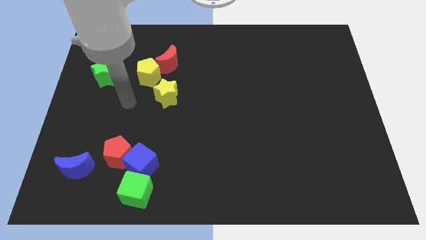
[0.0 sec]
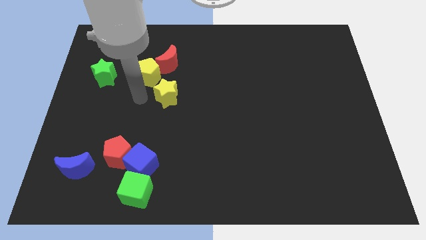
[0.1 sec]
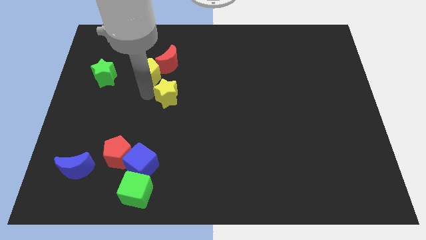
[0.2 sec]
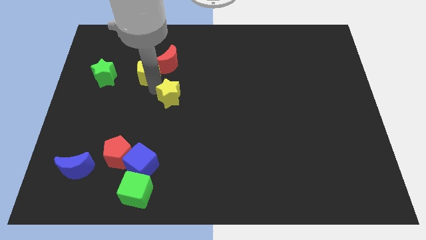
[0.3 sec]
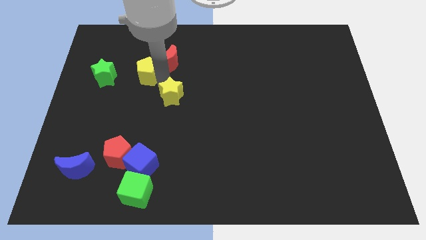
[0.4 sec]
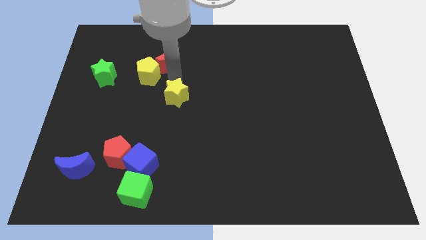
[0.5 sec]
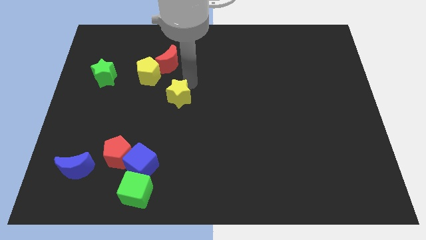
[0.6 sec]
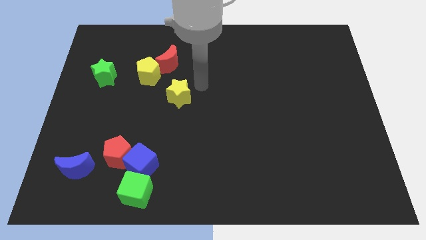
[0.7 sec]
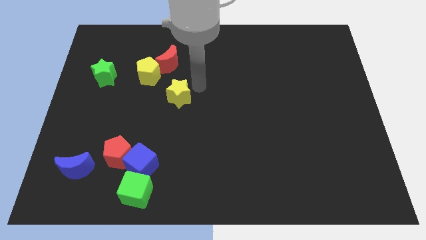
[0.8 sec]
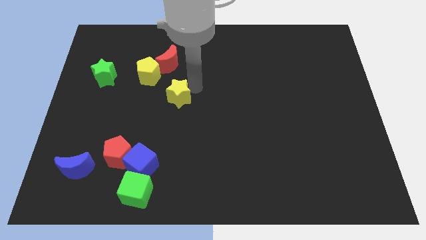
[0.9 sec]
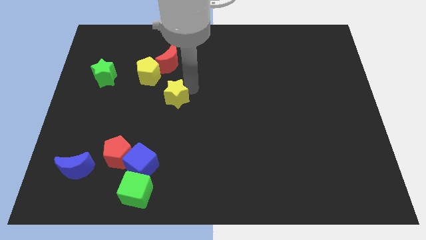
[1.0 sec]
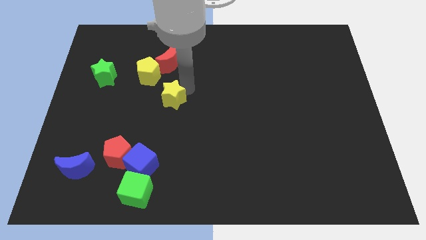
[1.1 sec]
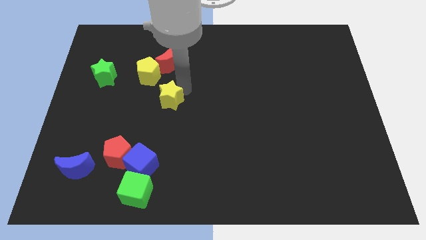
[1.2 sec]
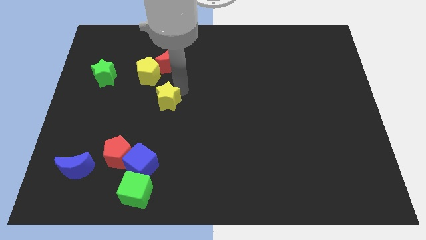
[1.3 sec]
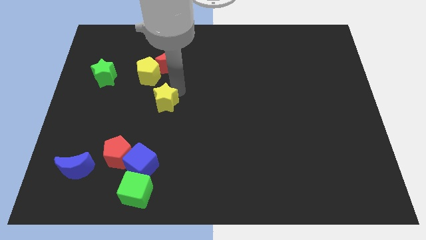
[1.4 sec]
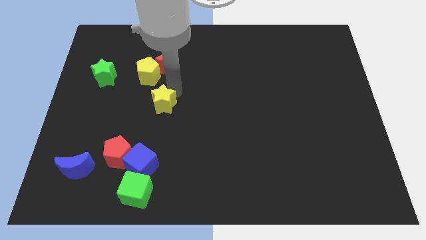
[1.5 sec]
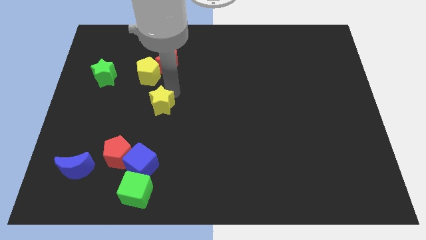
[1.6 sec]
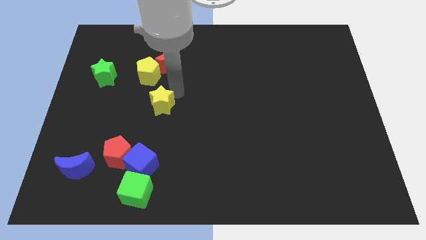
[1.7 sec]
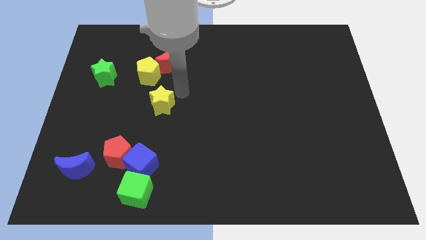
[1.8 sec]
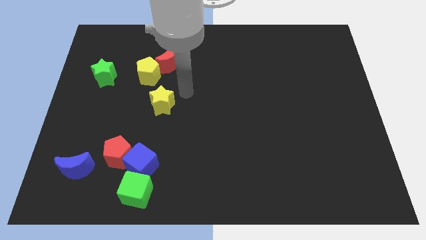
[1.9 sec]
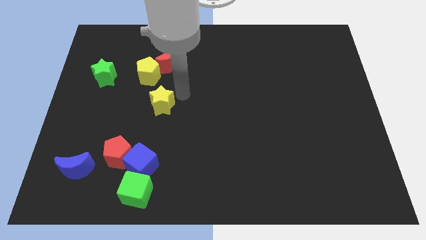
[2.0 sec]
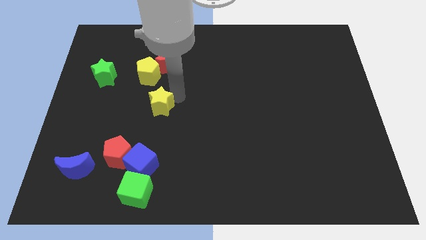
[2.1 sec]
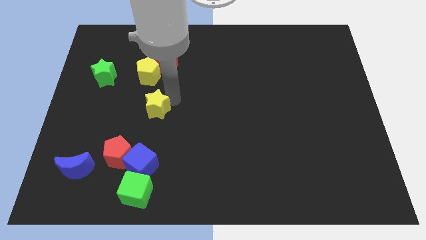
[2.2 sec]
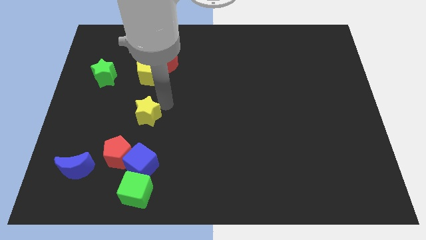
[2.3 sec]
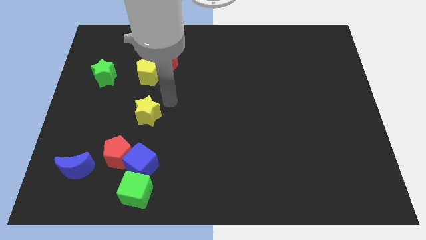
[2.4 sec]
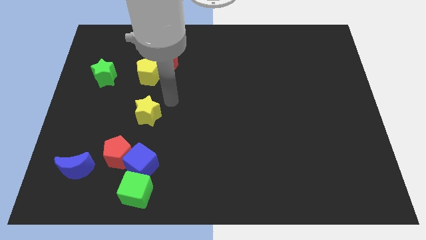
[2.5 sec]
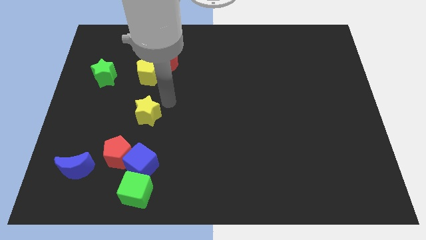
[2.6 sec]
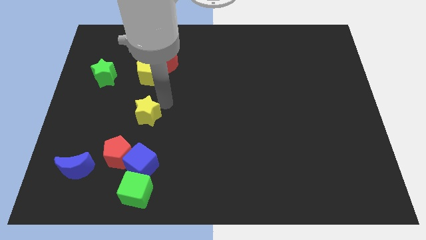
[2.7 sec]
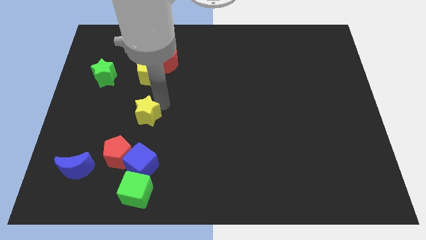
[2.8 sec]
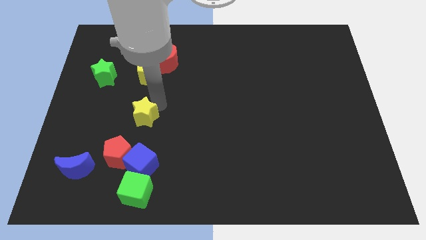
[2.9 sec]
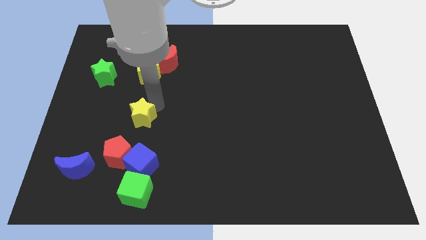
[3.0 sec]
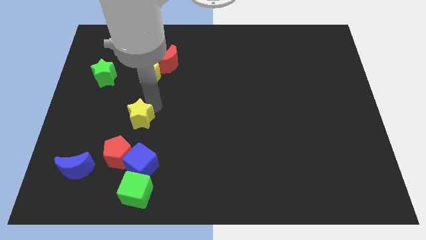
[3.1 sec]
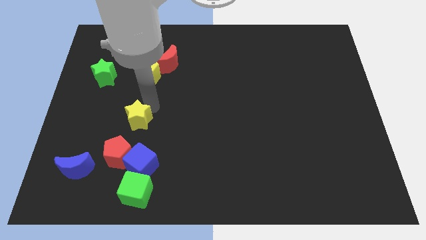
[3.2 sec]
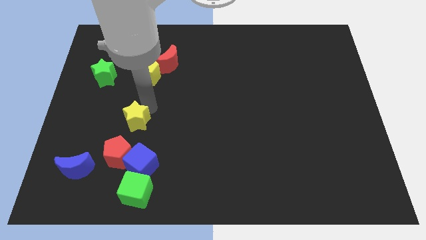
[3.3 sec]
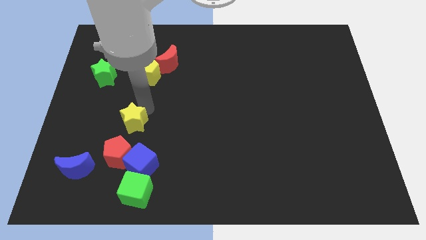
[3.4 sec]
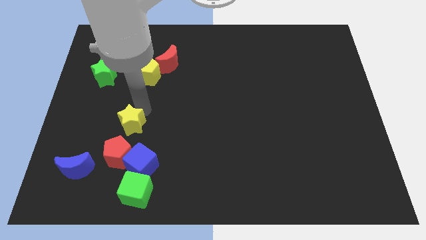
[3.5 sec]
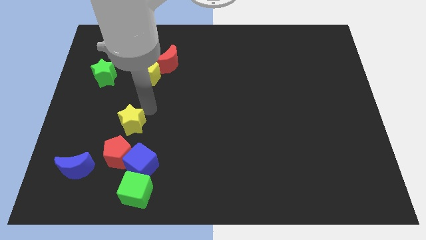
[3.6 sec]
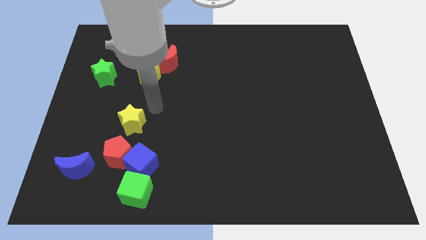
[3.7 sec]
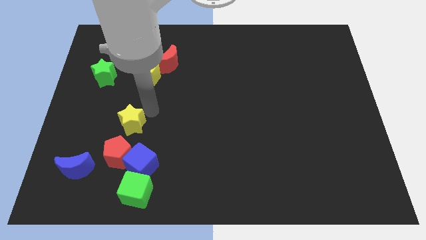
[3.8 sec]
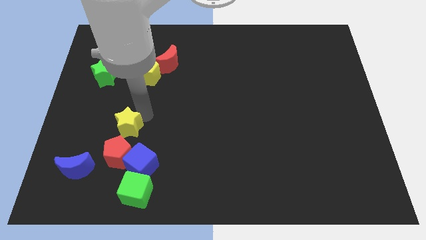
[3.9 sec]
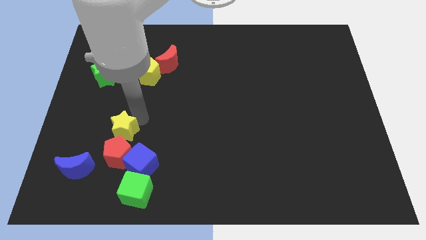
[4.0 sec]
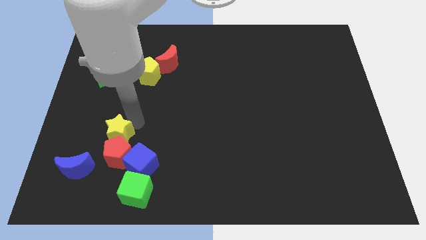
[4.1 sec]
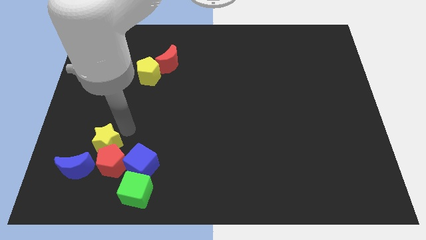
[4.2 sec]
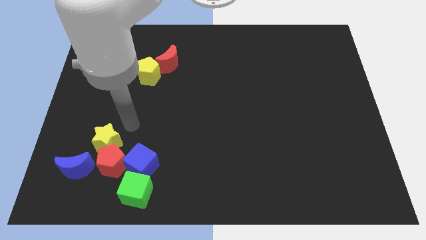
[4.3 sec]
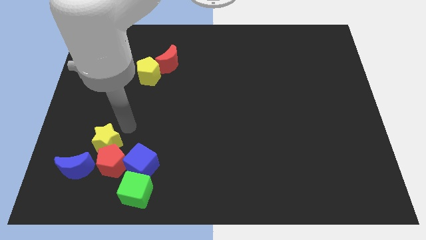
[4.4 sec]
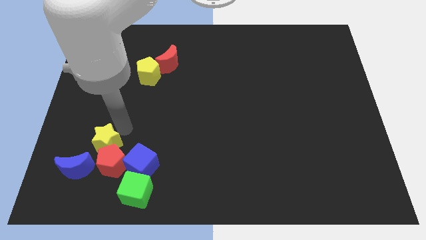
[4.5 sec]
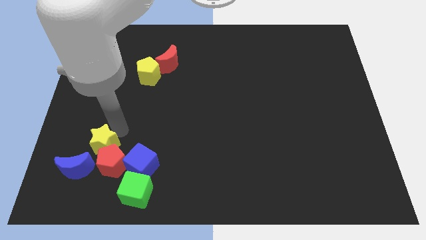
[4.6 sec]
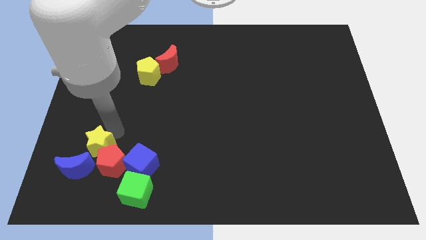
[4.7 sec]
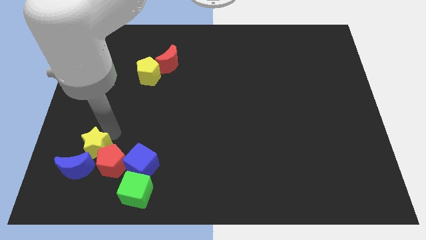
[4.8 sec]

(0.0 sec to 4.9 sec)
move the yellow star to the blue moon

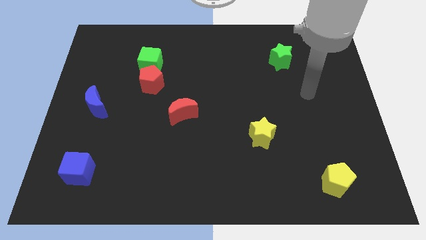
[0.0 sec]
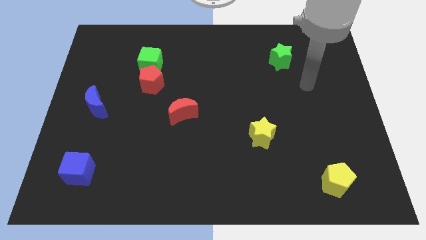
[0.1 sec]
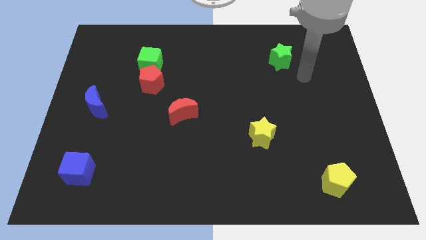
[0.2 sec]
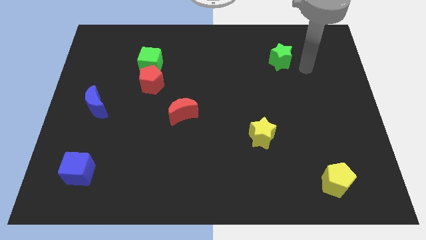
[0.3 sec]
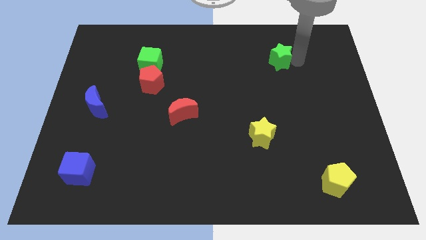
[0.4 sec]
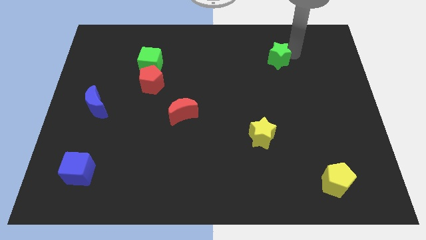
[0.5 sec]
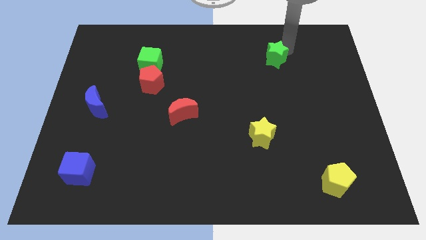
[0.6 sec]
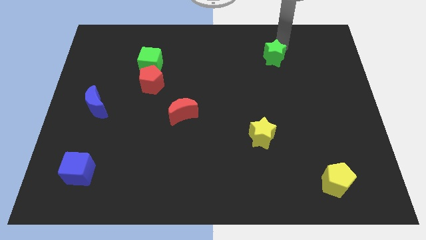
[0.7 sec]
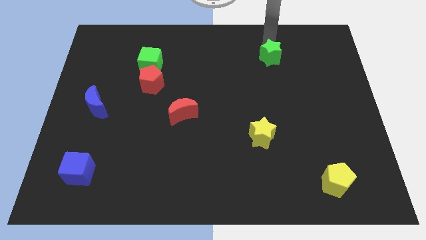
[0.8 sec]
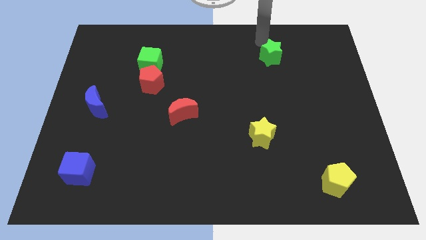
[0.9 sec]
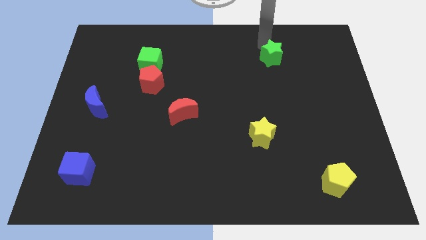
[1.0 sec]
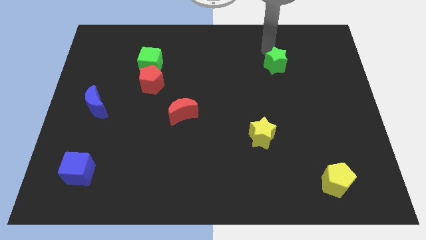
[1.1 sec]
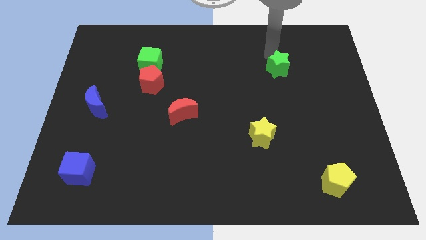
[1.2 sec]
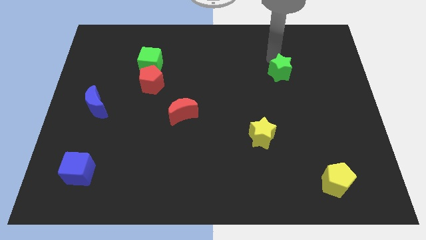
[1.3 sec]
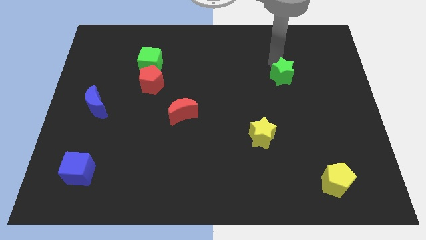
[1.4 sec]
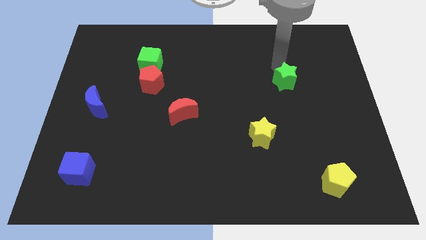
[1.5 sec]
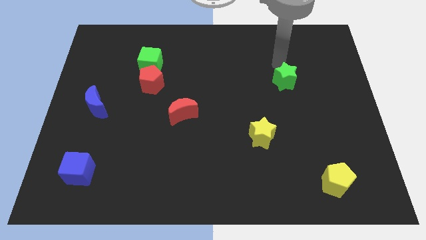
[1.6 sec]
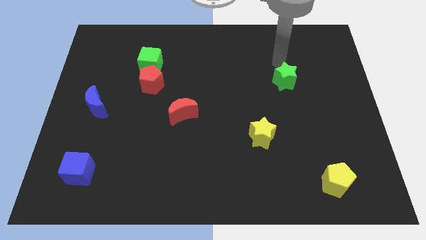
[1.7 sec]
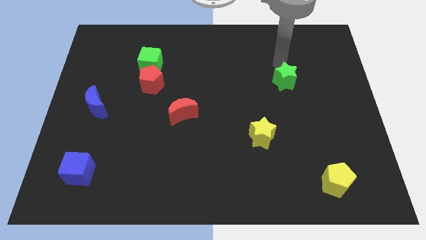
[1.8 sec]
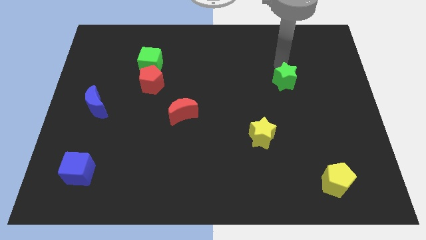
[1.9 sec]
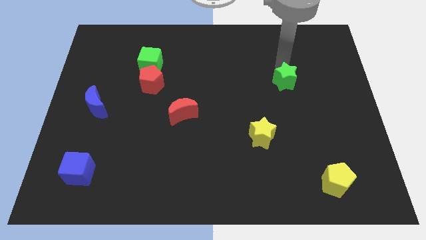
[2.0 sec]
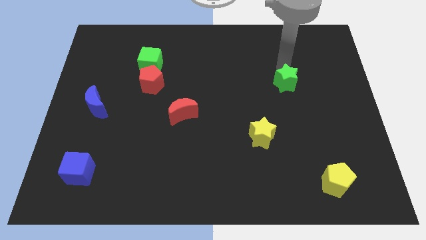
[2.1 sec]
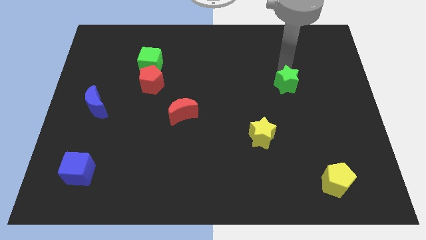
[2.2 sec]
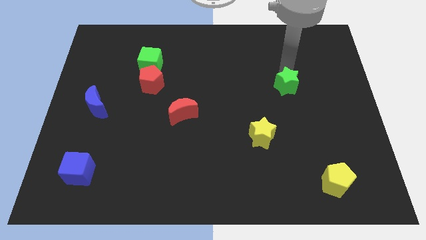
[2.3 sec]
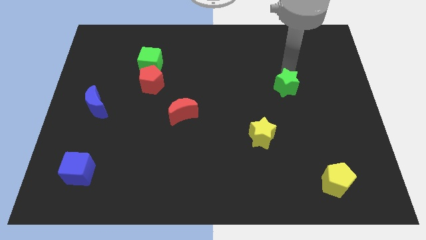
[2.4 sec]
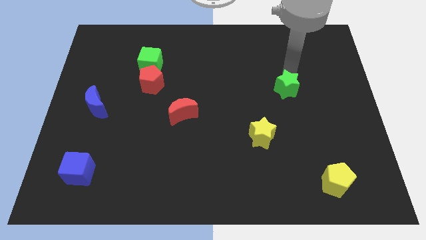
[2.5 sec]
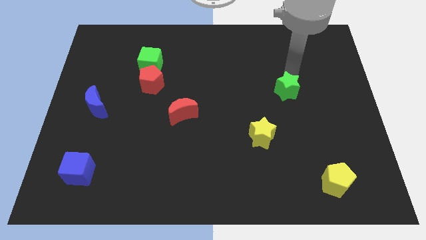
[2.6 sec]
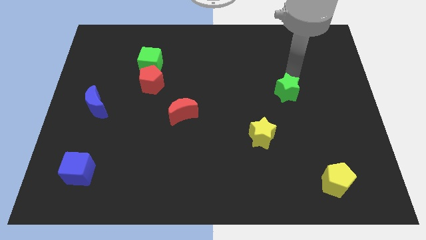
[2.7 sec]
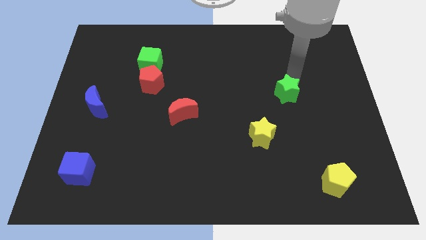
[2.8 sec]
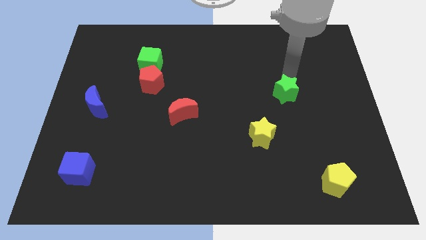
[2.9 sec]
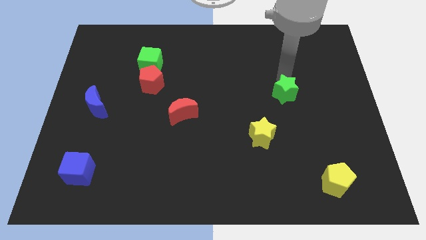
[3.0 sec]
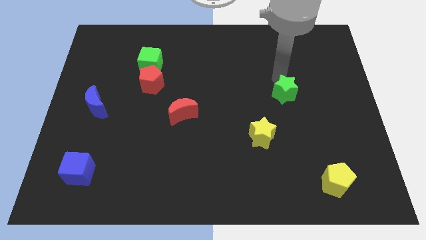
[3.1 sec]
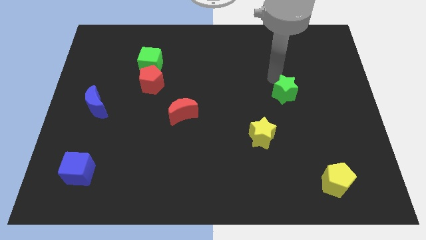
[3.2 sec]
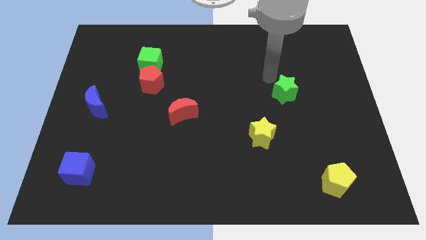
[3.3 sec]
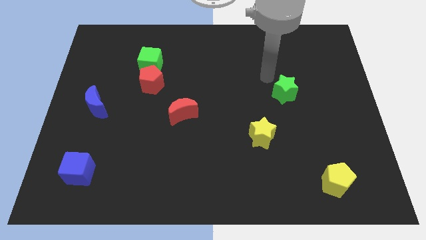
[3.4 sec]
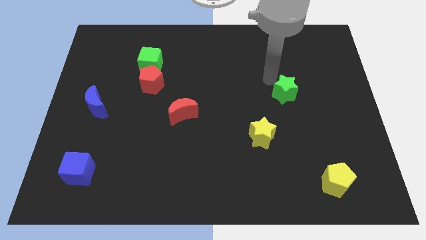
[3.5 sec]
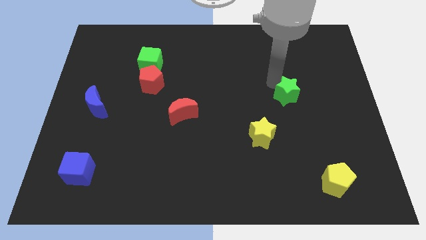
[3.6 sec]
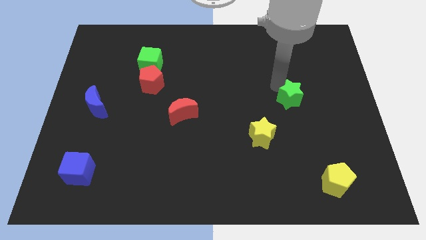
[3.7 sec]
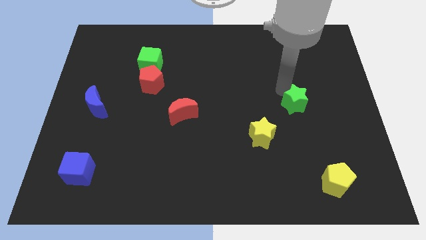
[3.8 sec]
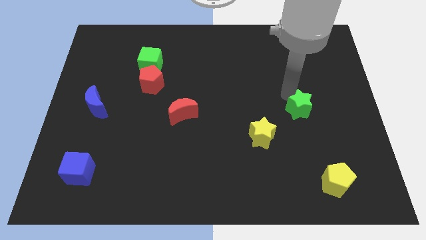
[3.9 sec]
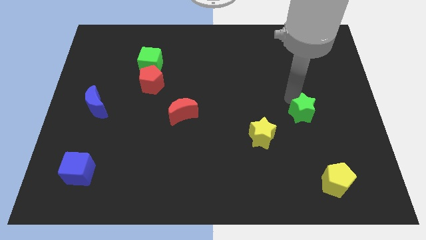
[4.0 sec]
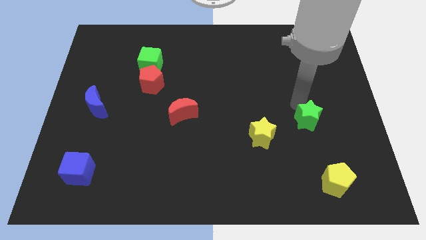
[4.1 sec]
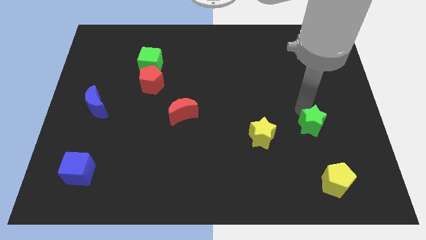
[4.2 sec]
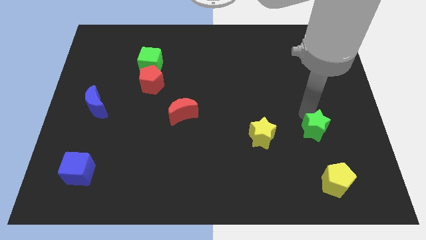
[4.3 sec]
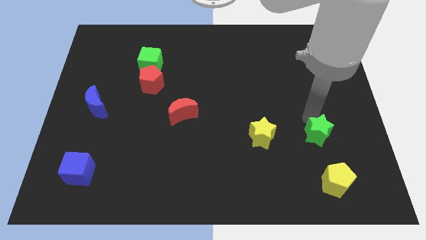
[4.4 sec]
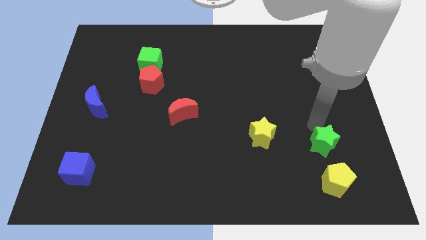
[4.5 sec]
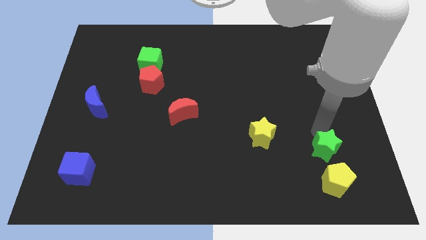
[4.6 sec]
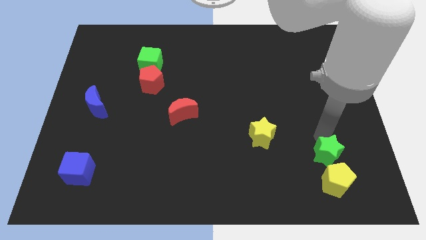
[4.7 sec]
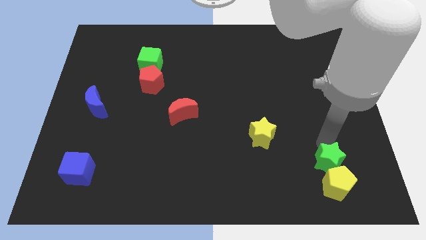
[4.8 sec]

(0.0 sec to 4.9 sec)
move the green star towards the yellow pentagon
